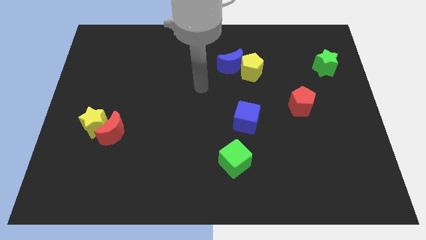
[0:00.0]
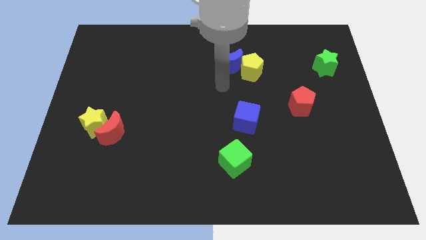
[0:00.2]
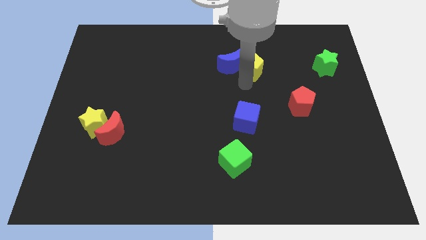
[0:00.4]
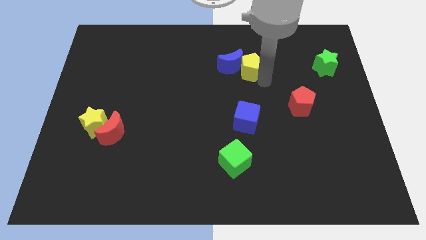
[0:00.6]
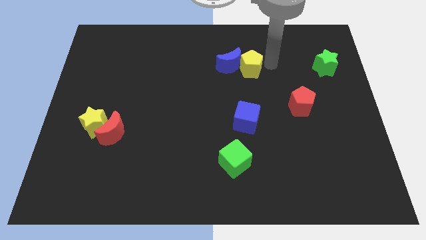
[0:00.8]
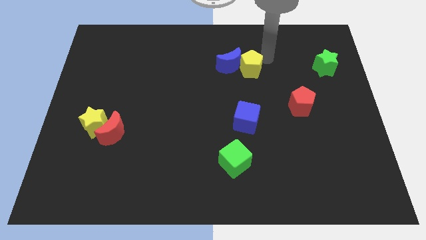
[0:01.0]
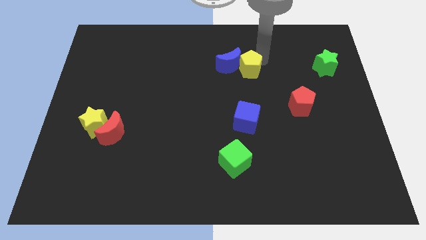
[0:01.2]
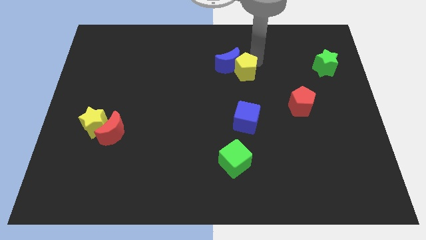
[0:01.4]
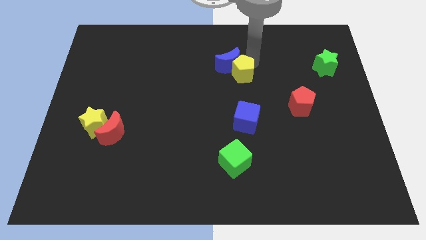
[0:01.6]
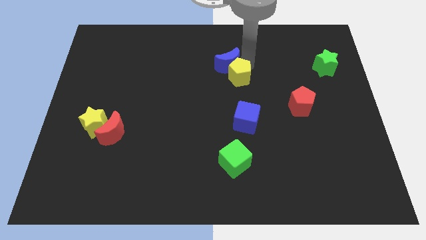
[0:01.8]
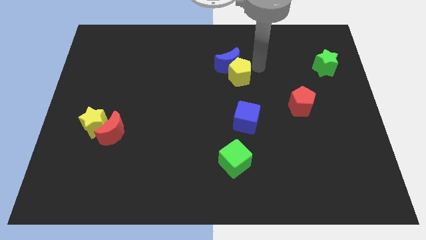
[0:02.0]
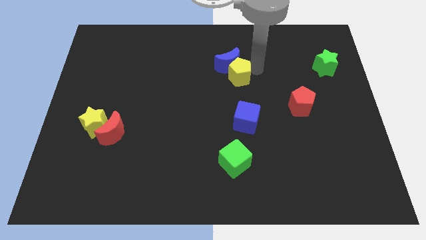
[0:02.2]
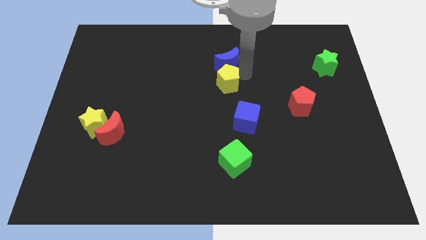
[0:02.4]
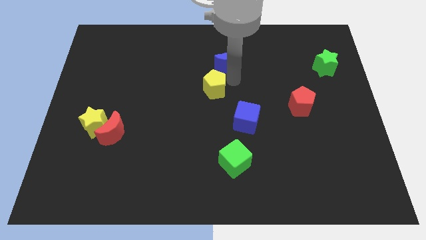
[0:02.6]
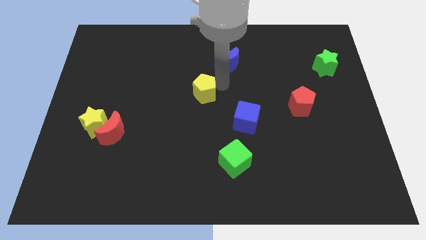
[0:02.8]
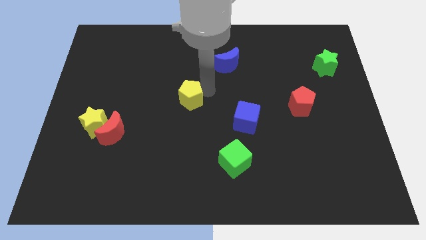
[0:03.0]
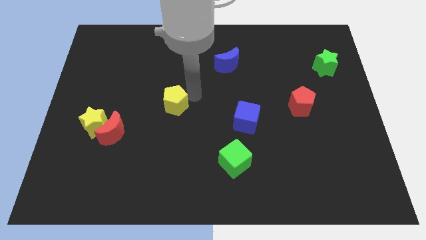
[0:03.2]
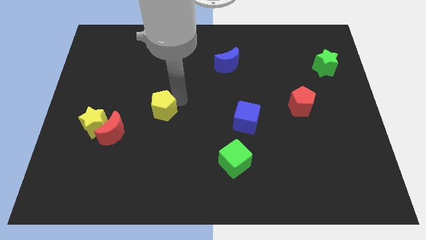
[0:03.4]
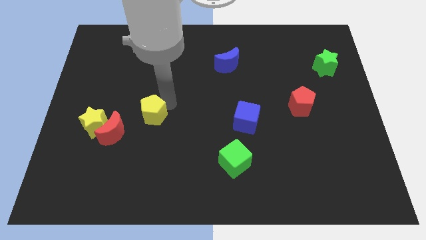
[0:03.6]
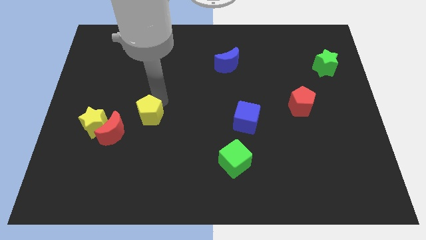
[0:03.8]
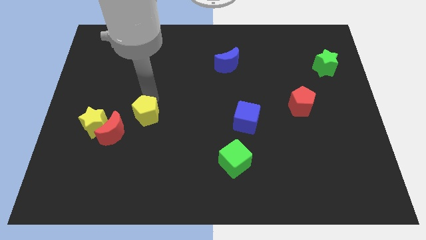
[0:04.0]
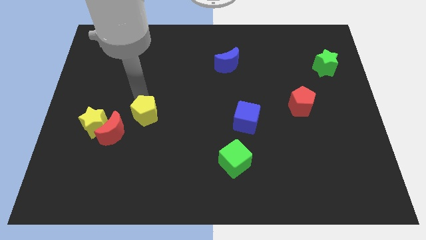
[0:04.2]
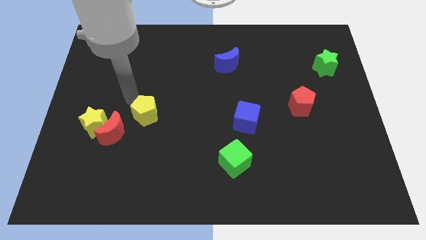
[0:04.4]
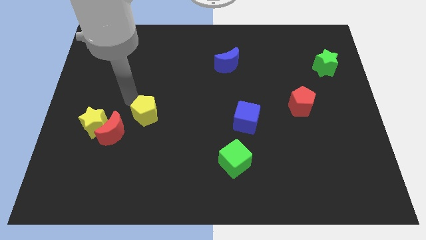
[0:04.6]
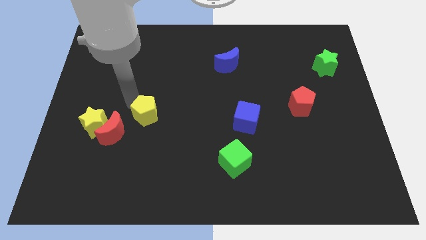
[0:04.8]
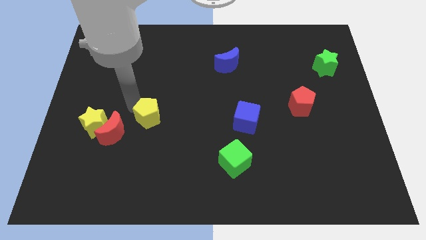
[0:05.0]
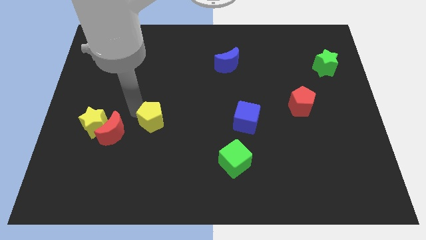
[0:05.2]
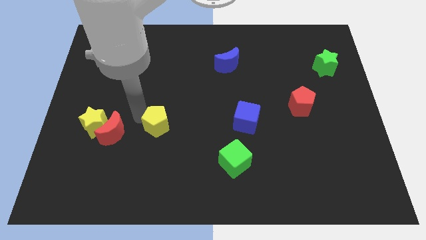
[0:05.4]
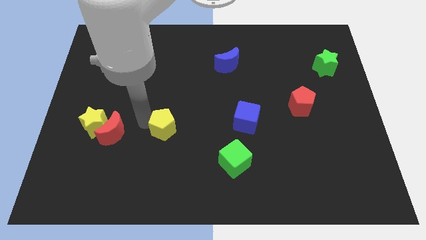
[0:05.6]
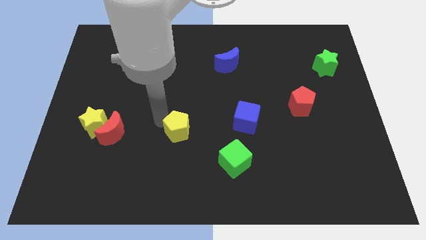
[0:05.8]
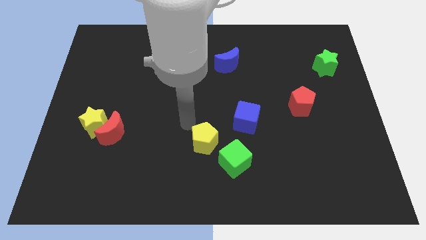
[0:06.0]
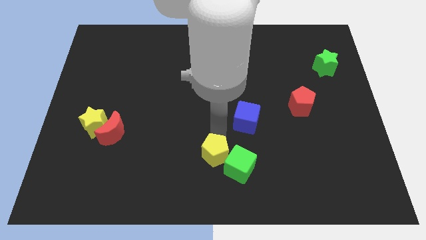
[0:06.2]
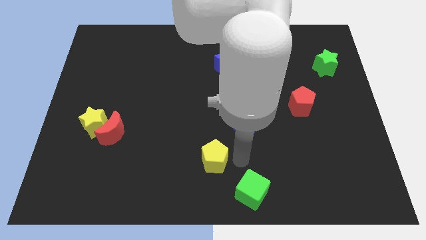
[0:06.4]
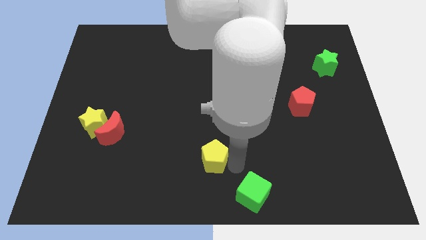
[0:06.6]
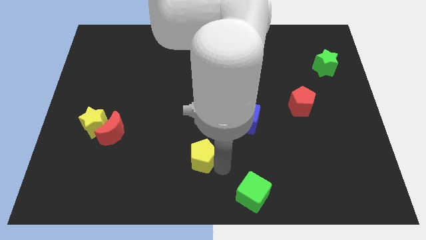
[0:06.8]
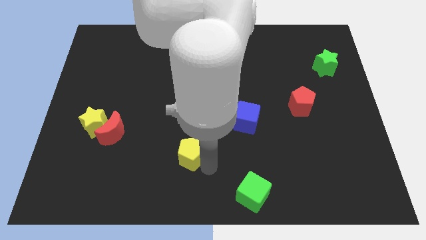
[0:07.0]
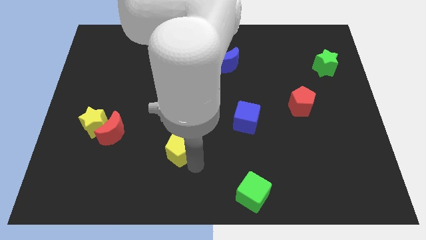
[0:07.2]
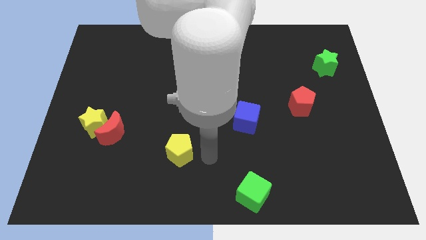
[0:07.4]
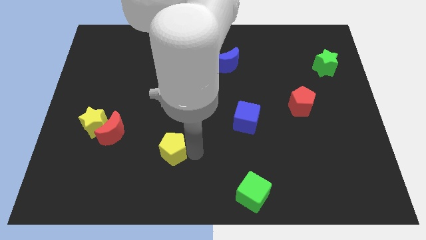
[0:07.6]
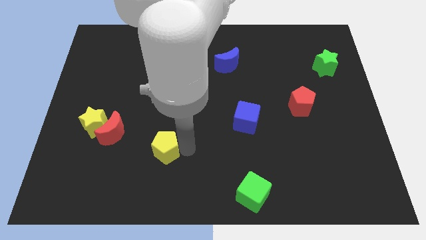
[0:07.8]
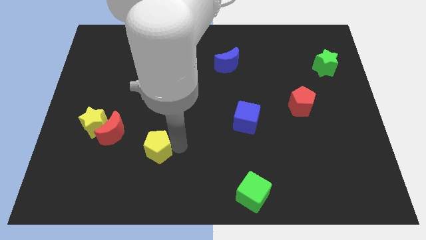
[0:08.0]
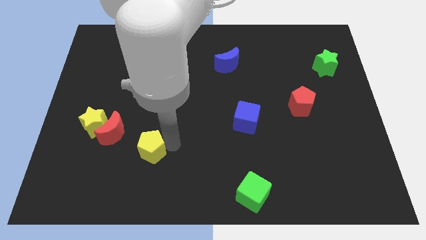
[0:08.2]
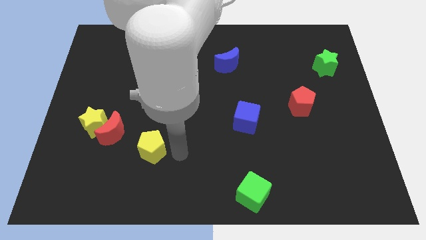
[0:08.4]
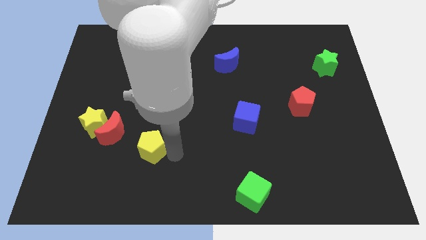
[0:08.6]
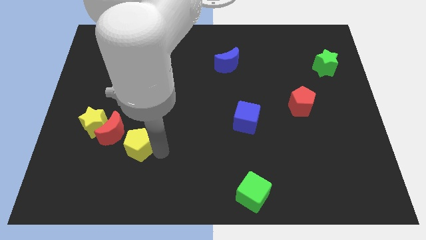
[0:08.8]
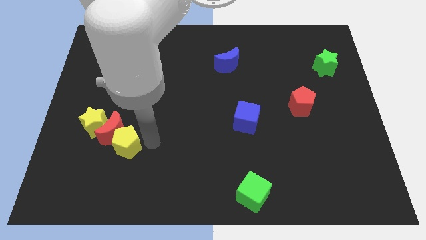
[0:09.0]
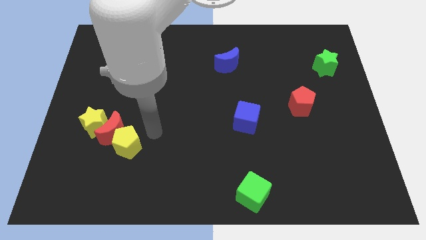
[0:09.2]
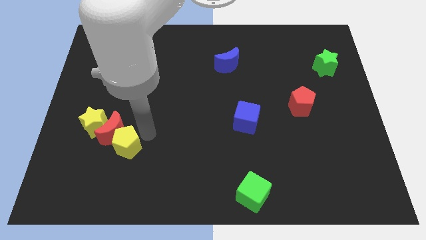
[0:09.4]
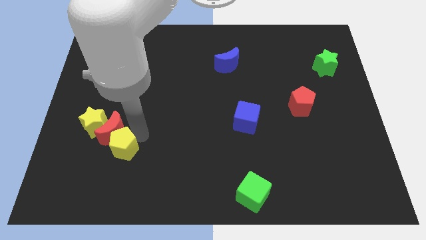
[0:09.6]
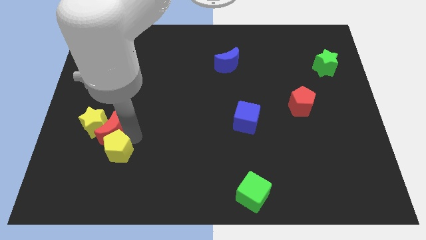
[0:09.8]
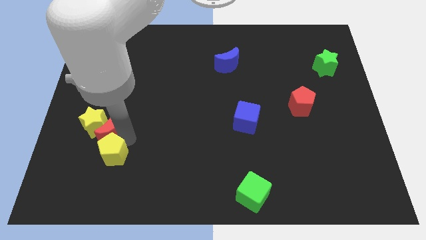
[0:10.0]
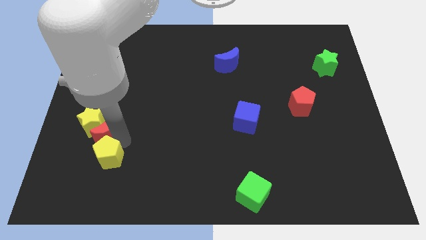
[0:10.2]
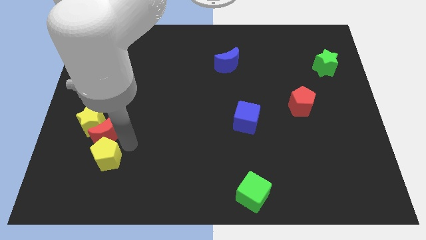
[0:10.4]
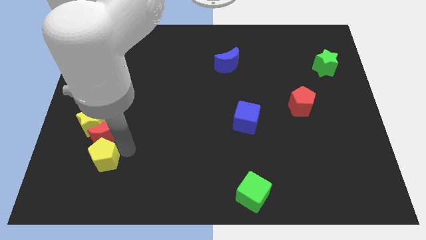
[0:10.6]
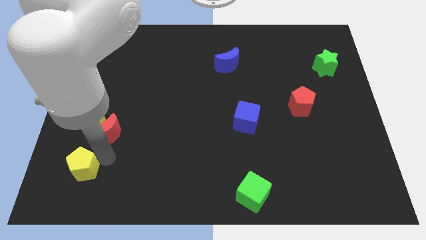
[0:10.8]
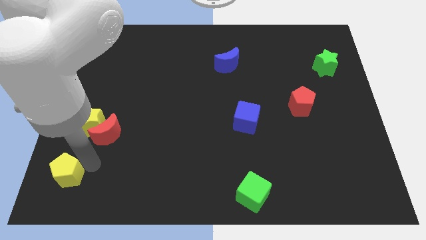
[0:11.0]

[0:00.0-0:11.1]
push the yellow pentagon to the bottom left

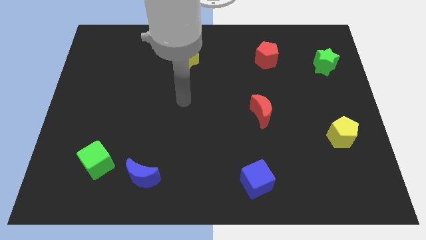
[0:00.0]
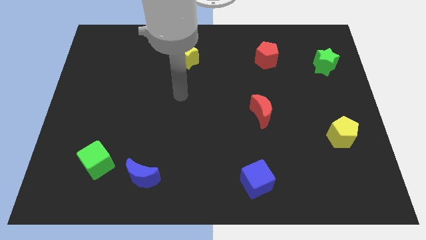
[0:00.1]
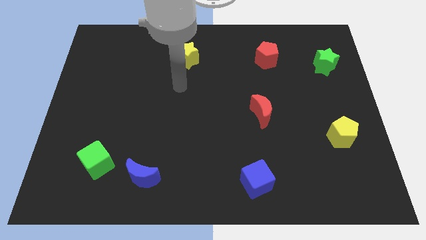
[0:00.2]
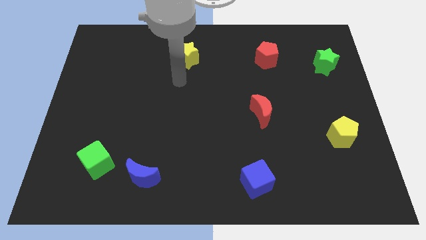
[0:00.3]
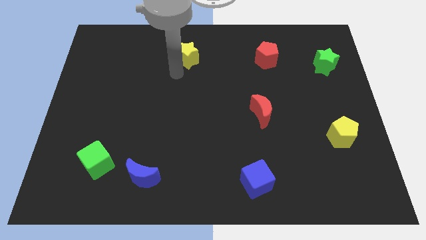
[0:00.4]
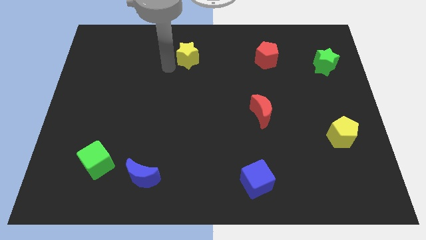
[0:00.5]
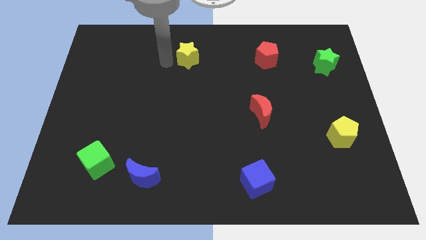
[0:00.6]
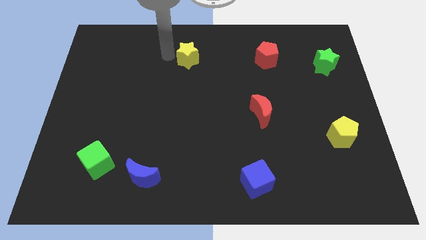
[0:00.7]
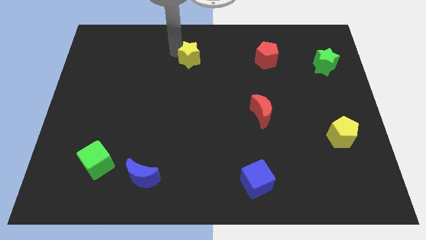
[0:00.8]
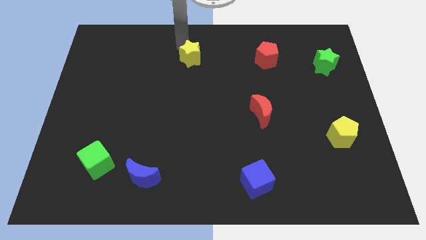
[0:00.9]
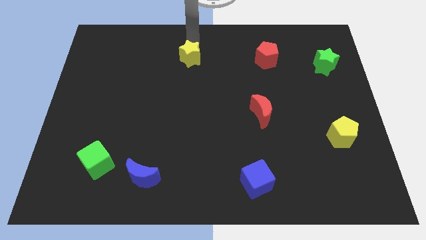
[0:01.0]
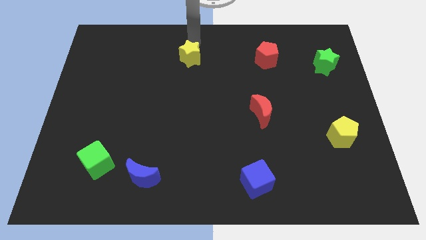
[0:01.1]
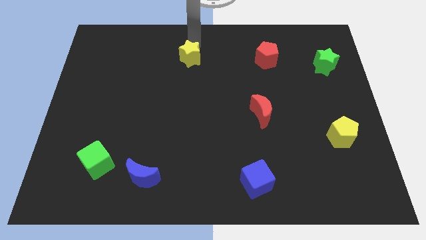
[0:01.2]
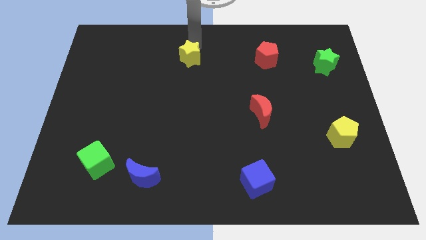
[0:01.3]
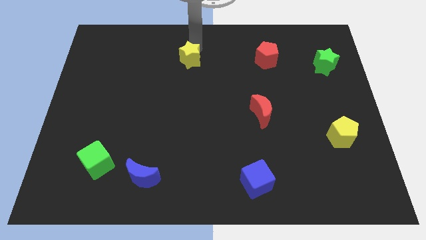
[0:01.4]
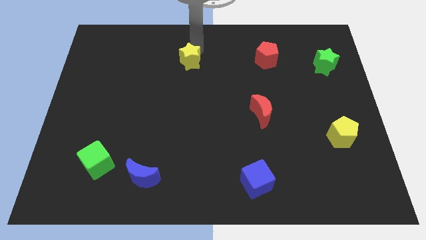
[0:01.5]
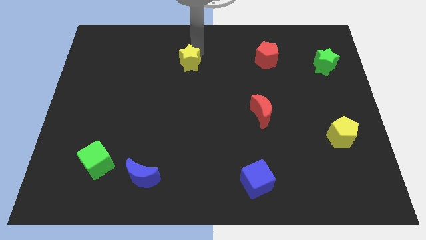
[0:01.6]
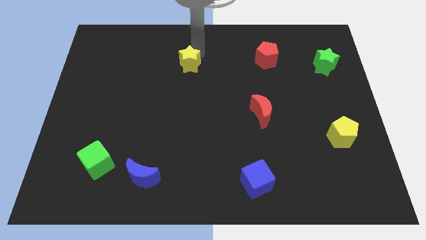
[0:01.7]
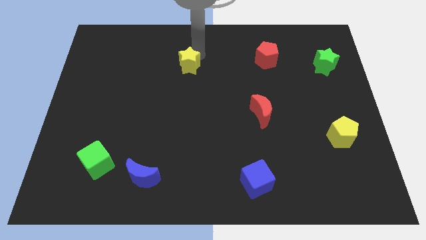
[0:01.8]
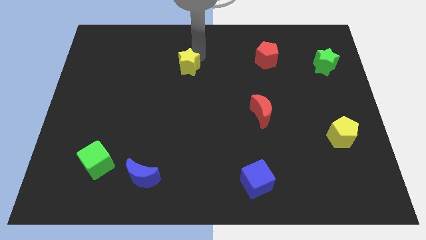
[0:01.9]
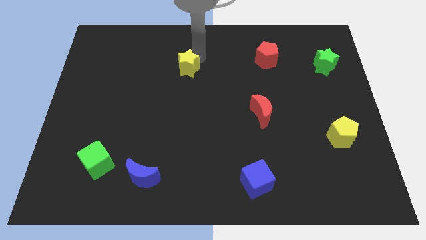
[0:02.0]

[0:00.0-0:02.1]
move the yellow star to the center of the board
